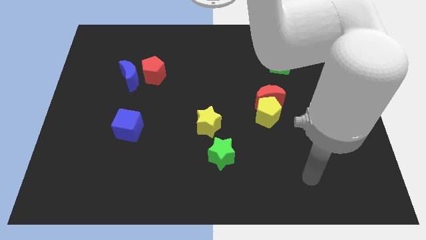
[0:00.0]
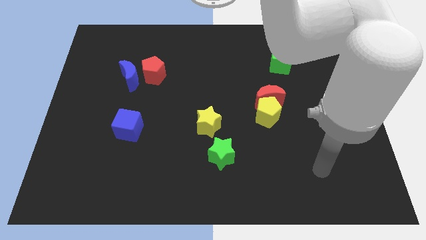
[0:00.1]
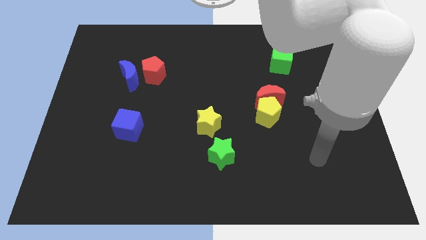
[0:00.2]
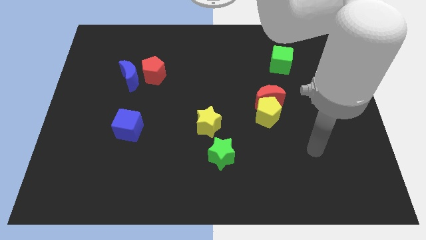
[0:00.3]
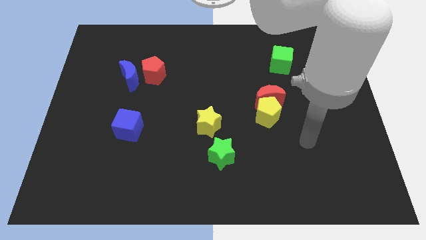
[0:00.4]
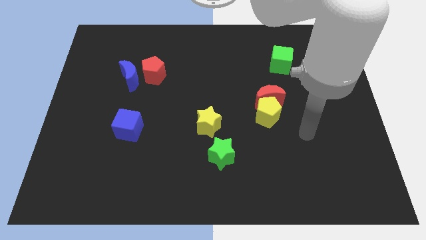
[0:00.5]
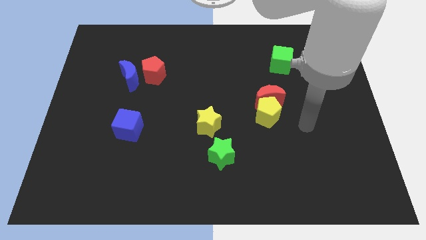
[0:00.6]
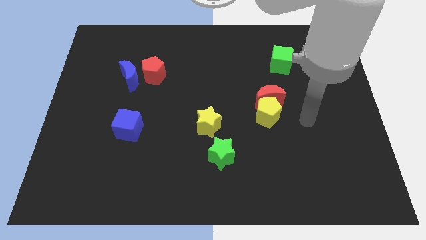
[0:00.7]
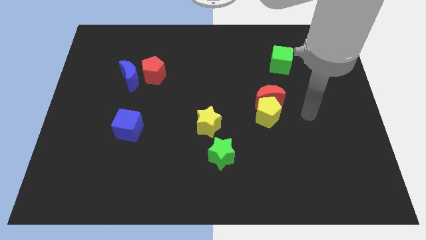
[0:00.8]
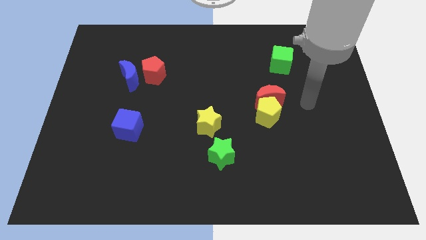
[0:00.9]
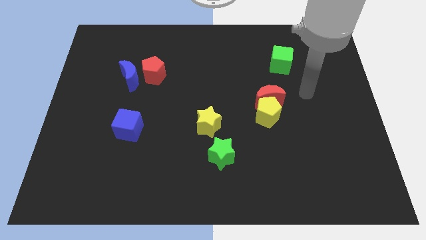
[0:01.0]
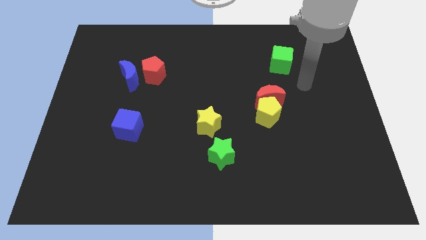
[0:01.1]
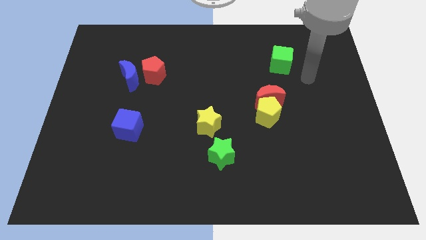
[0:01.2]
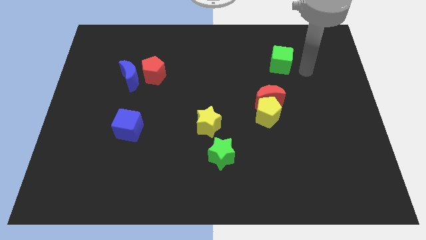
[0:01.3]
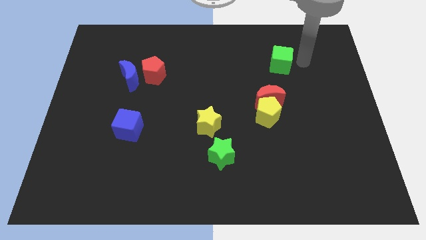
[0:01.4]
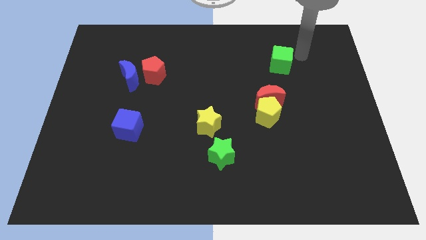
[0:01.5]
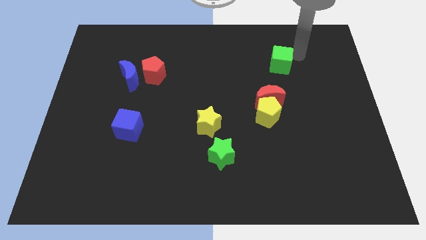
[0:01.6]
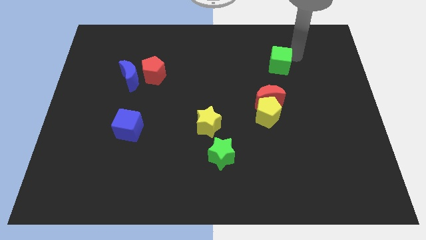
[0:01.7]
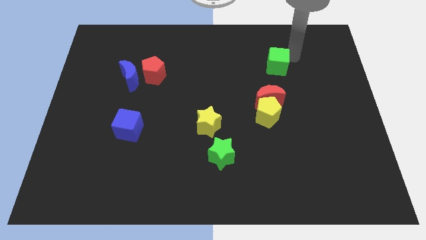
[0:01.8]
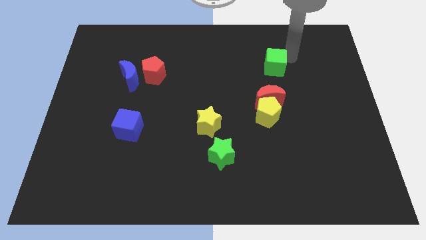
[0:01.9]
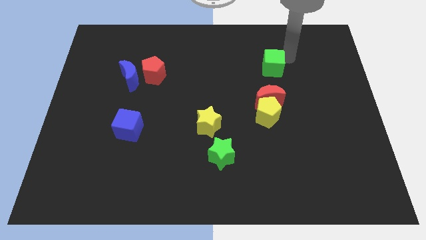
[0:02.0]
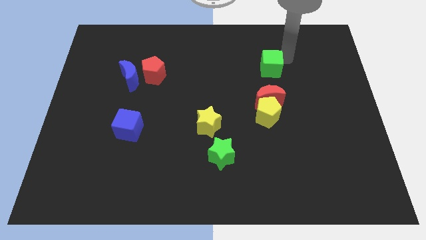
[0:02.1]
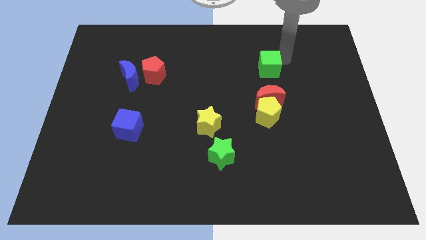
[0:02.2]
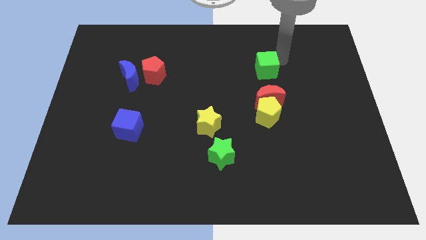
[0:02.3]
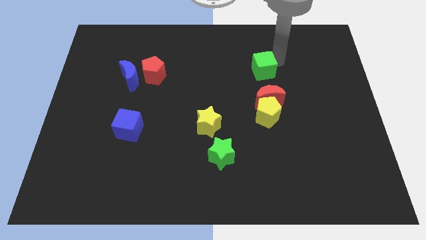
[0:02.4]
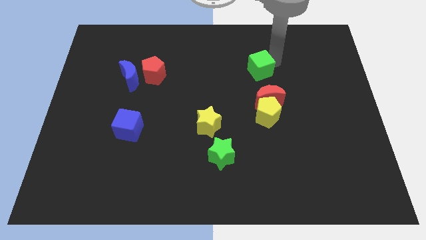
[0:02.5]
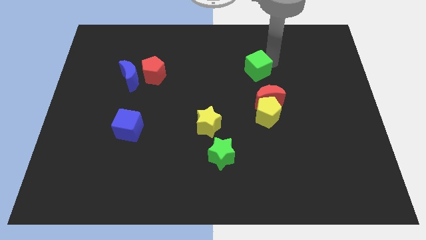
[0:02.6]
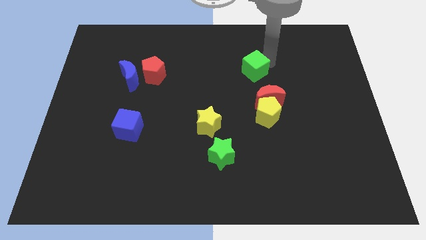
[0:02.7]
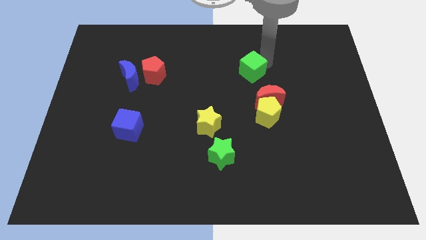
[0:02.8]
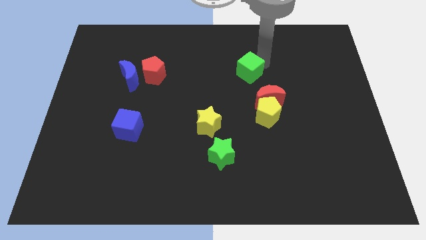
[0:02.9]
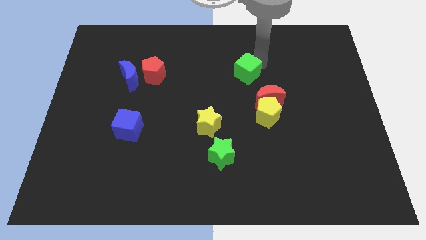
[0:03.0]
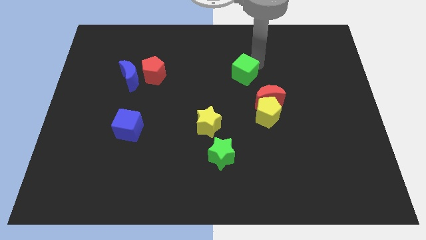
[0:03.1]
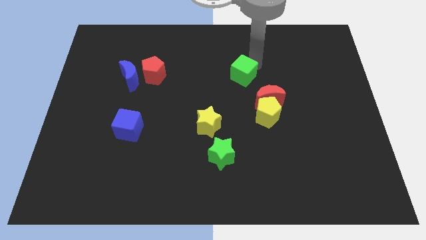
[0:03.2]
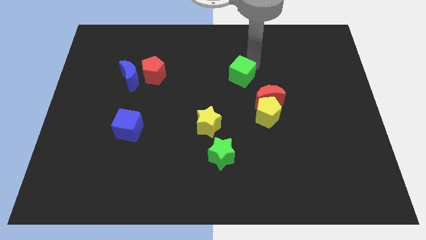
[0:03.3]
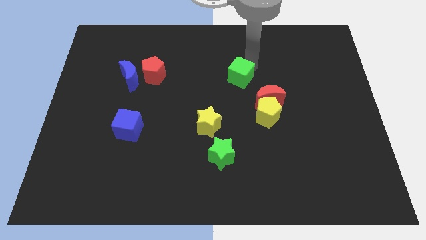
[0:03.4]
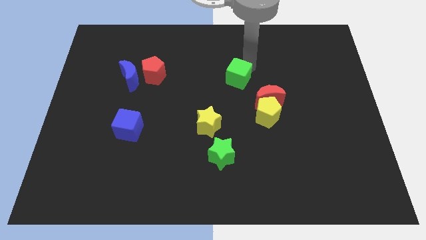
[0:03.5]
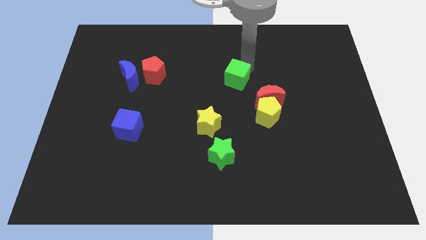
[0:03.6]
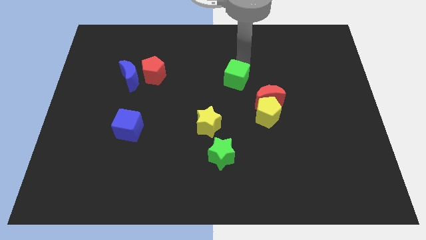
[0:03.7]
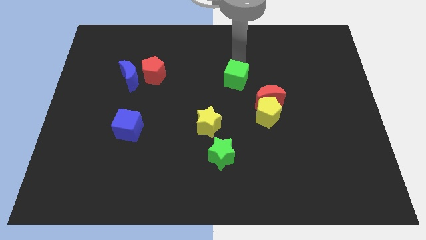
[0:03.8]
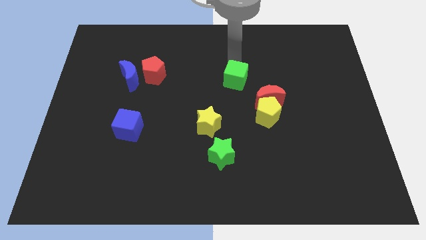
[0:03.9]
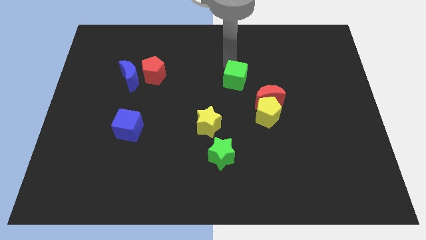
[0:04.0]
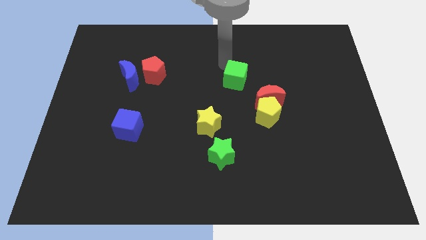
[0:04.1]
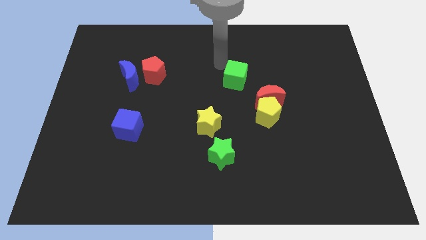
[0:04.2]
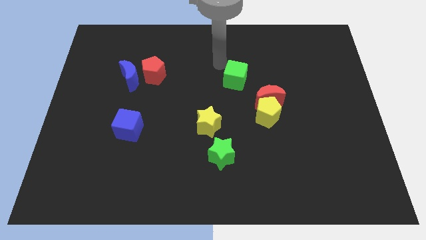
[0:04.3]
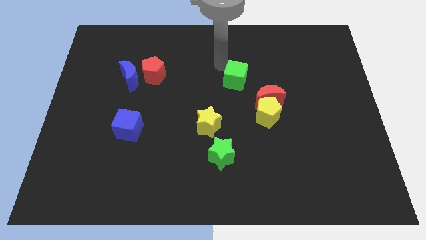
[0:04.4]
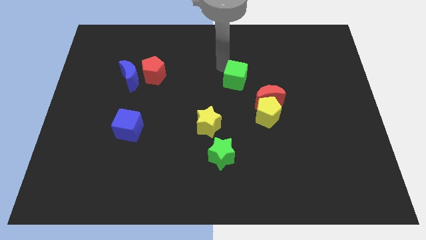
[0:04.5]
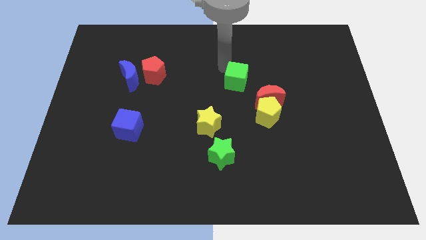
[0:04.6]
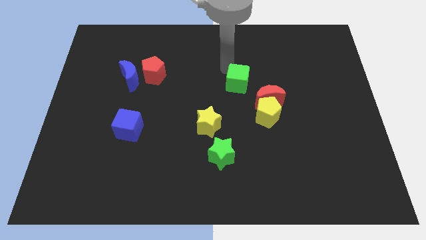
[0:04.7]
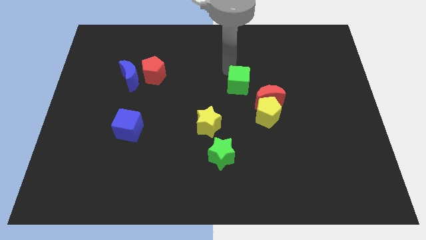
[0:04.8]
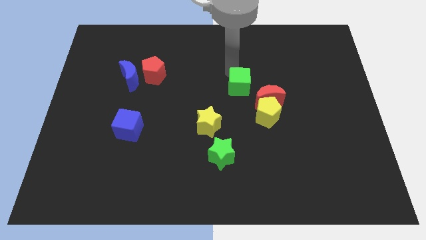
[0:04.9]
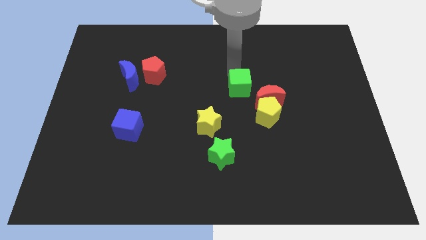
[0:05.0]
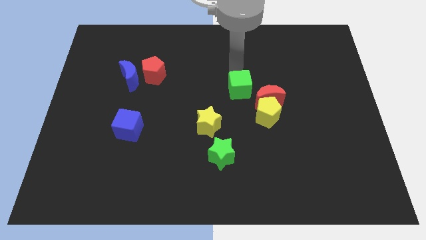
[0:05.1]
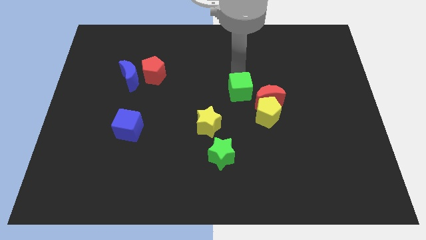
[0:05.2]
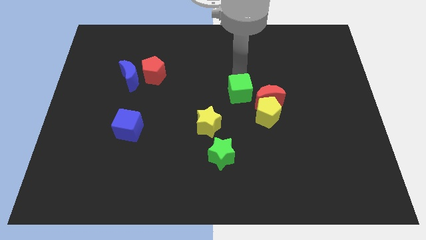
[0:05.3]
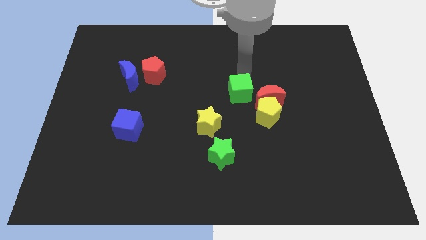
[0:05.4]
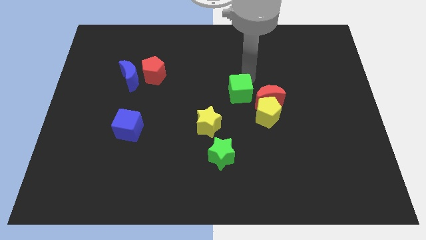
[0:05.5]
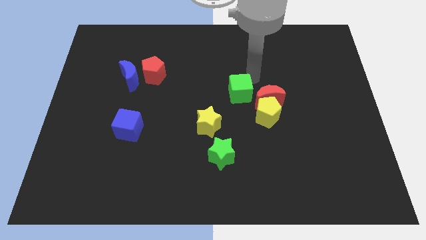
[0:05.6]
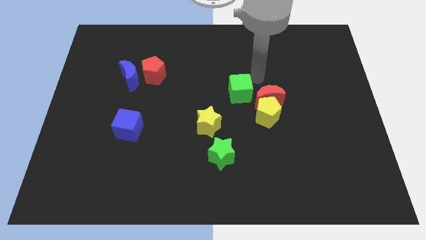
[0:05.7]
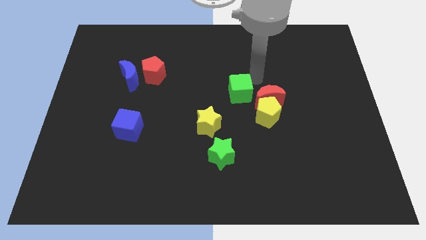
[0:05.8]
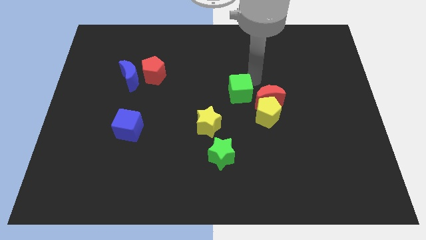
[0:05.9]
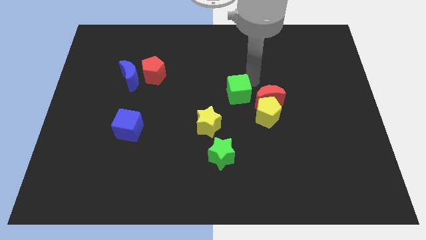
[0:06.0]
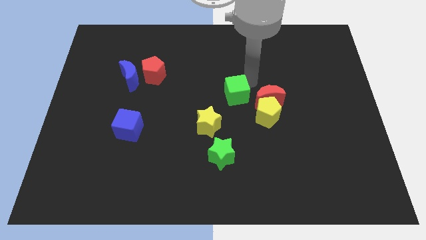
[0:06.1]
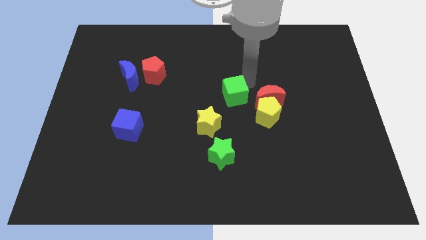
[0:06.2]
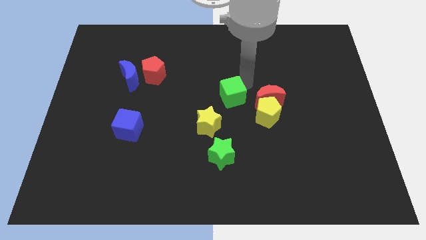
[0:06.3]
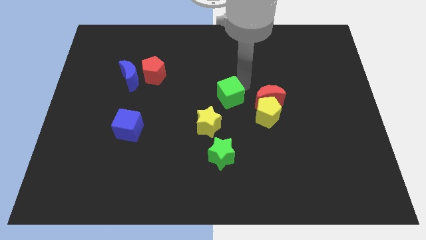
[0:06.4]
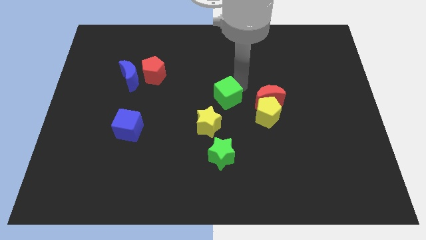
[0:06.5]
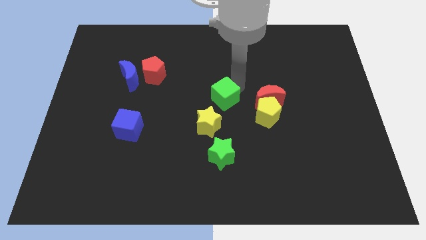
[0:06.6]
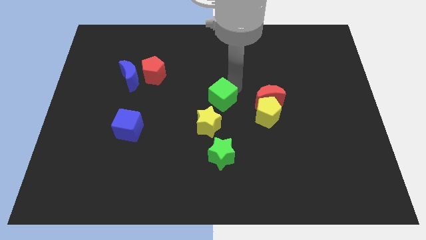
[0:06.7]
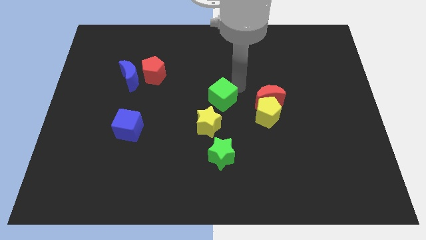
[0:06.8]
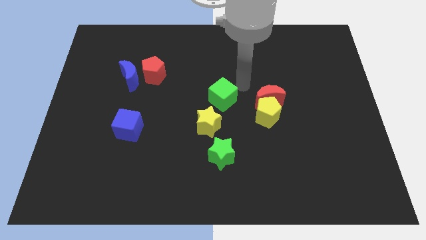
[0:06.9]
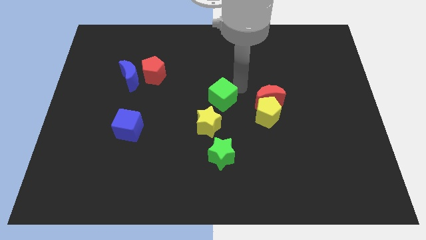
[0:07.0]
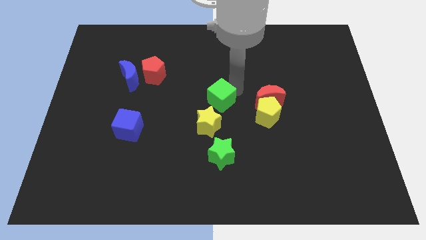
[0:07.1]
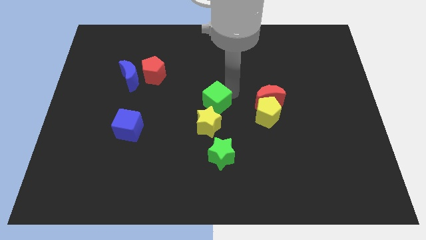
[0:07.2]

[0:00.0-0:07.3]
slide the green cube down and left diagonally

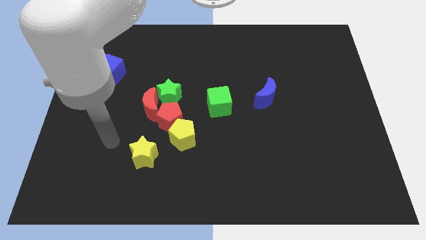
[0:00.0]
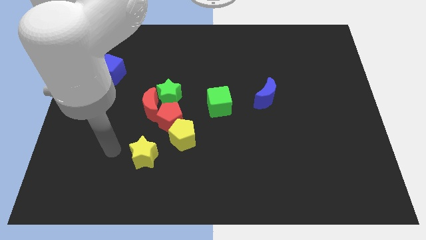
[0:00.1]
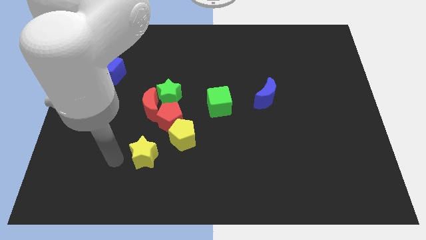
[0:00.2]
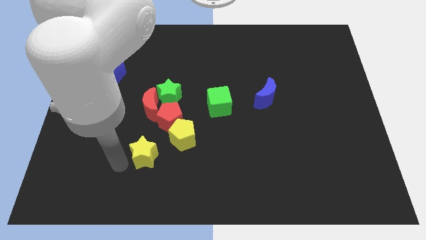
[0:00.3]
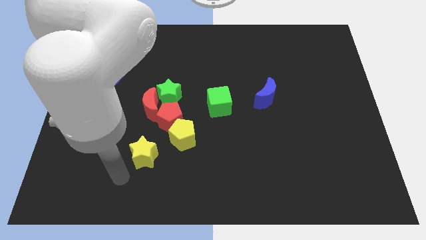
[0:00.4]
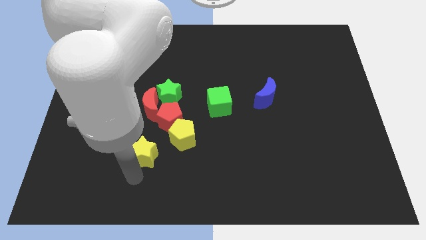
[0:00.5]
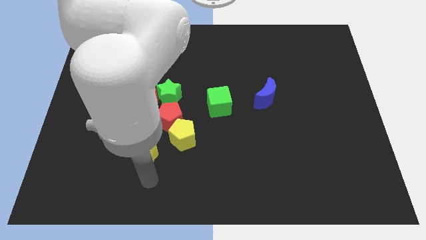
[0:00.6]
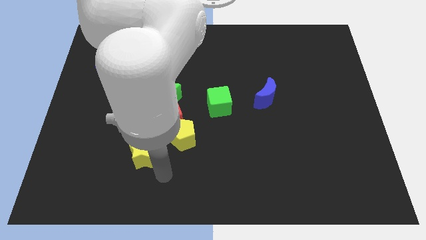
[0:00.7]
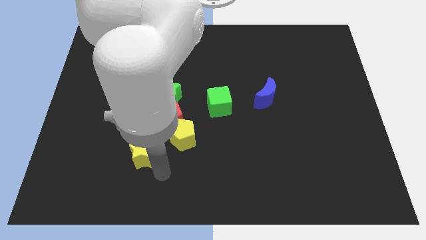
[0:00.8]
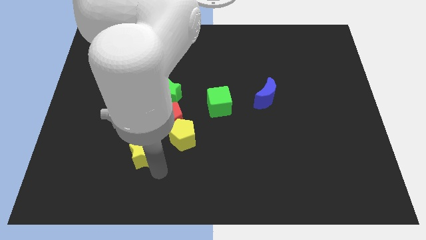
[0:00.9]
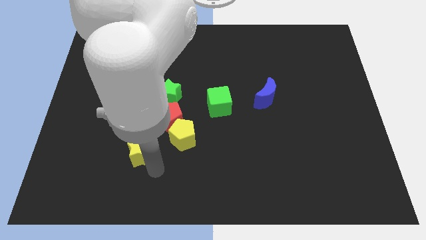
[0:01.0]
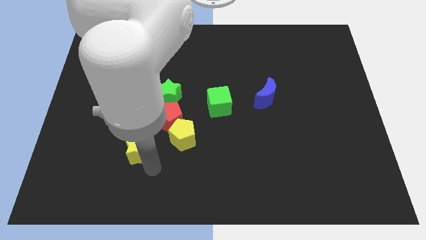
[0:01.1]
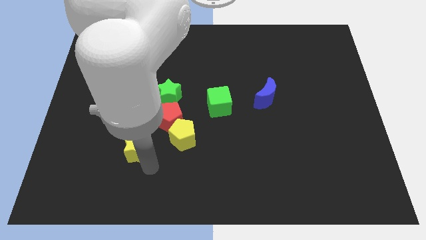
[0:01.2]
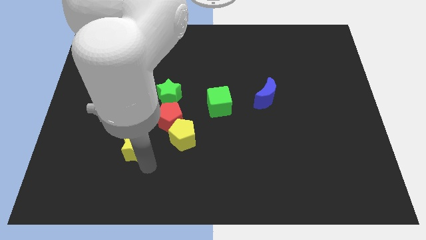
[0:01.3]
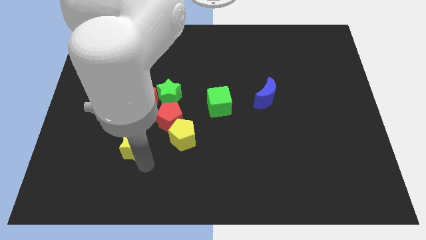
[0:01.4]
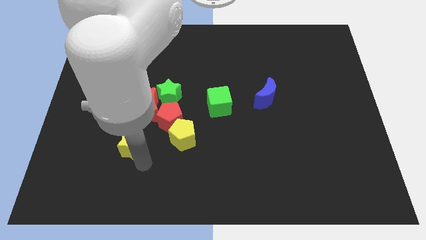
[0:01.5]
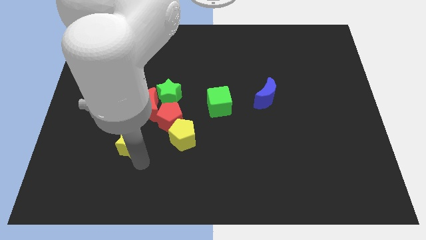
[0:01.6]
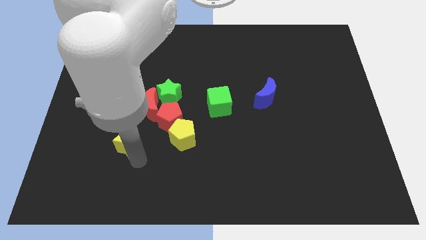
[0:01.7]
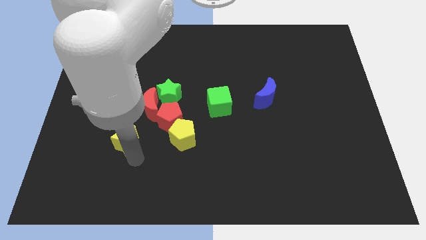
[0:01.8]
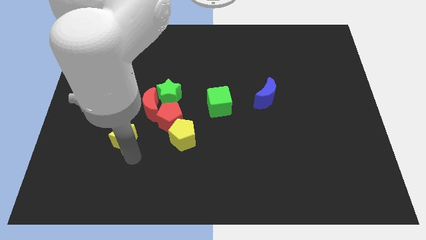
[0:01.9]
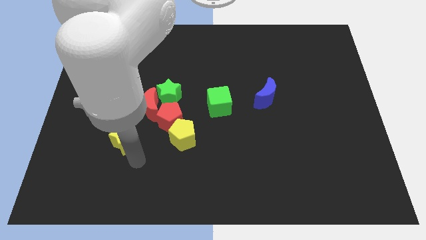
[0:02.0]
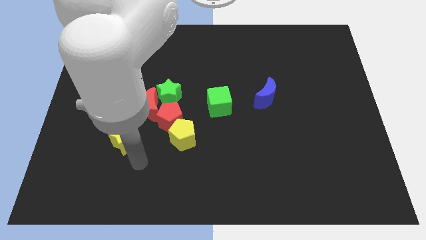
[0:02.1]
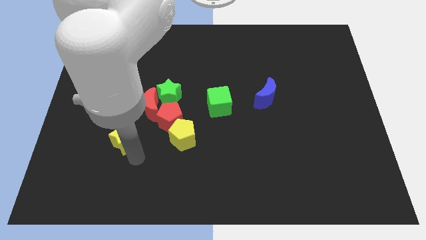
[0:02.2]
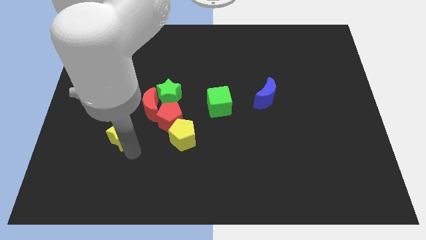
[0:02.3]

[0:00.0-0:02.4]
slightly push the yellow star up and left diagonally
